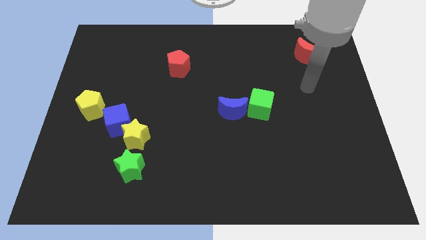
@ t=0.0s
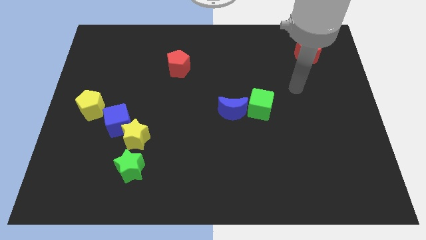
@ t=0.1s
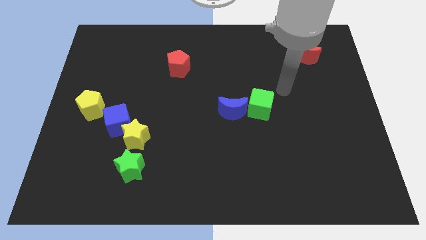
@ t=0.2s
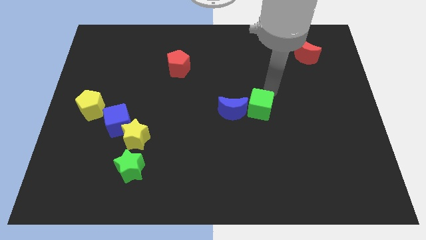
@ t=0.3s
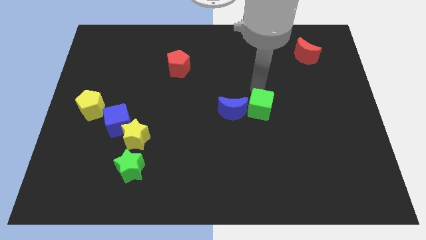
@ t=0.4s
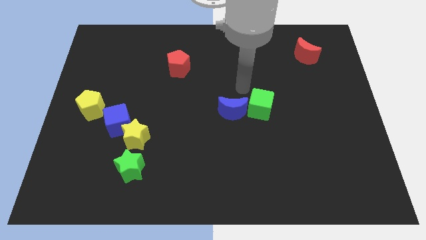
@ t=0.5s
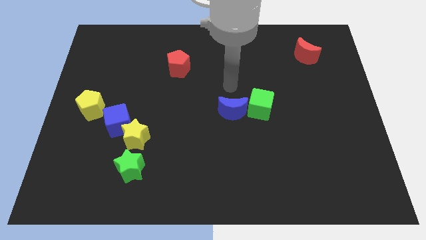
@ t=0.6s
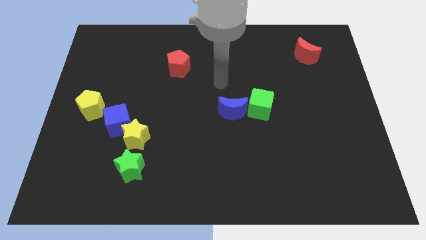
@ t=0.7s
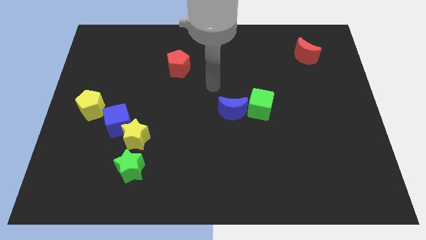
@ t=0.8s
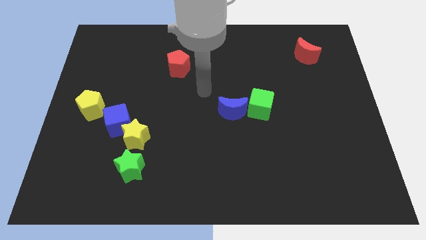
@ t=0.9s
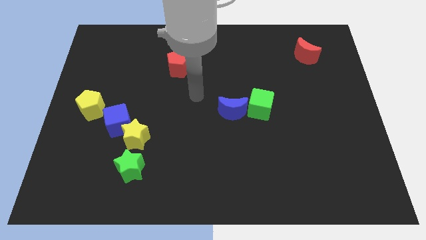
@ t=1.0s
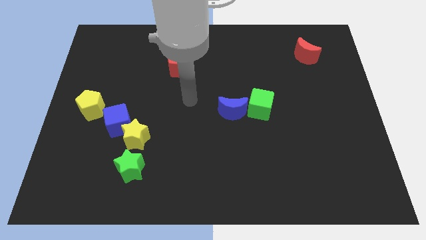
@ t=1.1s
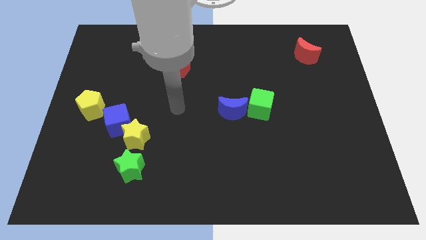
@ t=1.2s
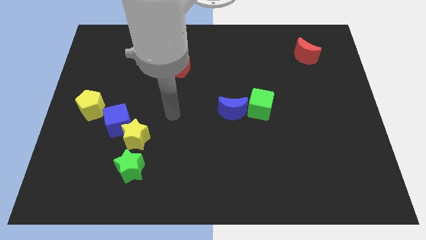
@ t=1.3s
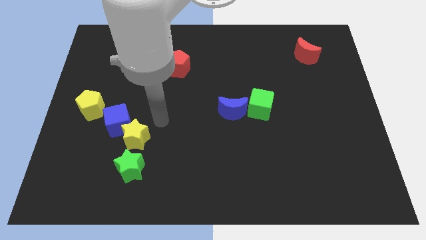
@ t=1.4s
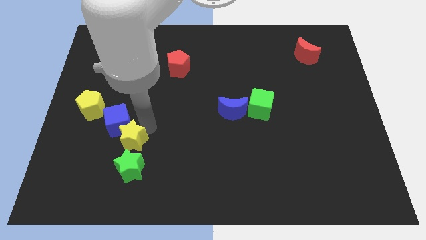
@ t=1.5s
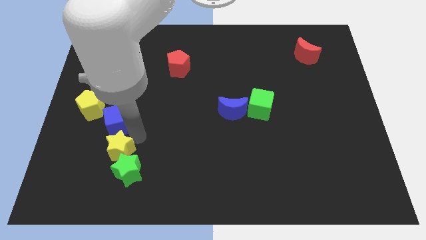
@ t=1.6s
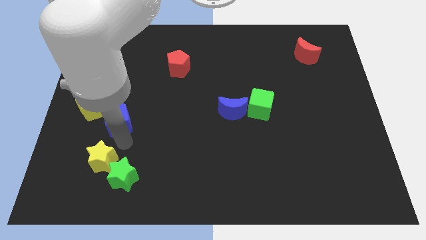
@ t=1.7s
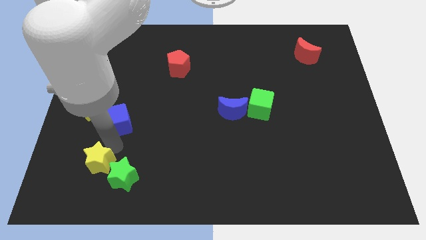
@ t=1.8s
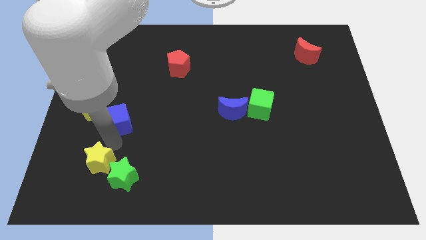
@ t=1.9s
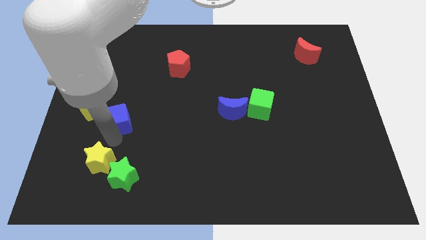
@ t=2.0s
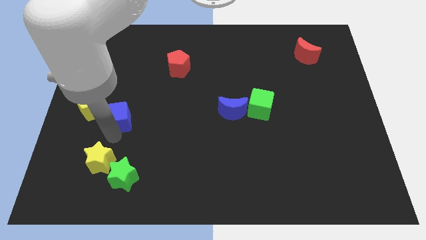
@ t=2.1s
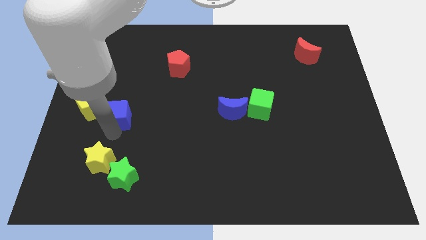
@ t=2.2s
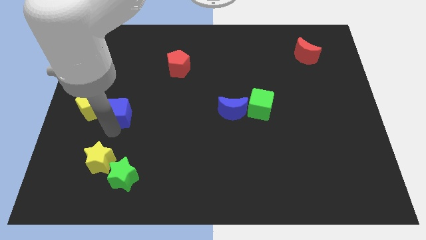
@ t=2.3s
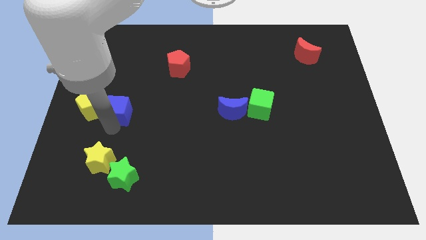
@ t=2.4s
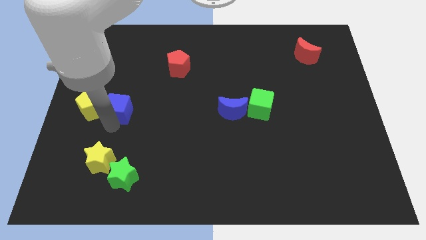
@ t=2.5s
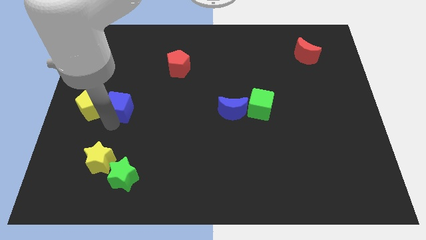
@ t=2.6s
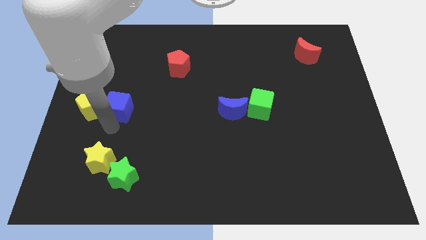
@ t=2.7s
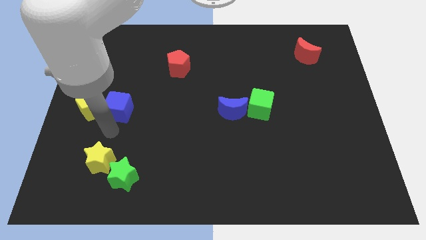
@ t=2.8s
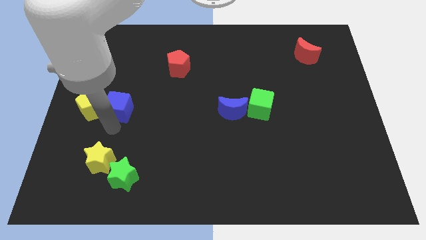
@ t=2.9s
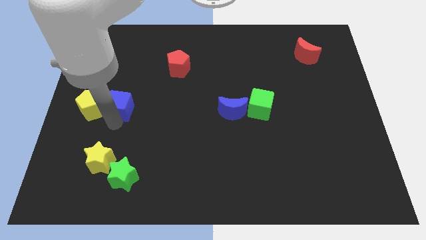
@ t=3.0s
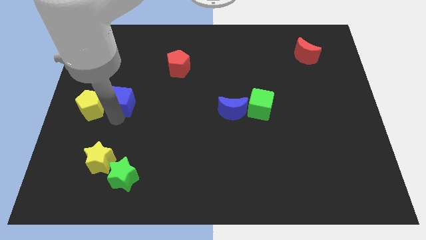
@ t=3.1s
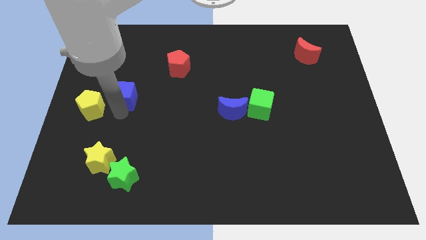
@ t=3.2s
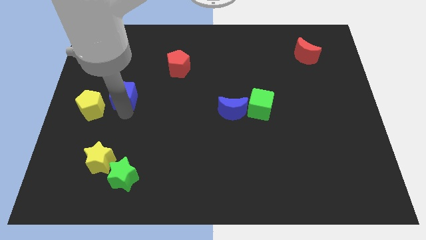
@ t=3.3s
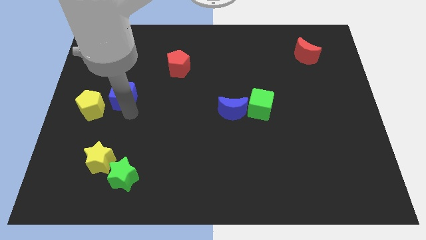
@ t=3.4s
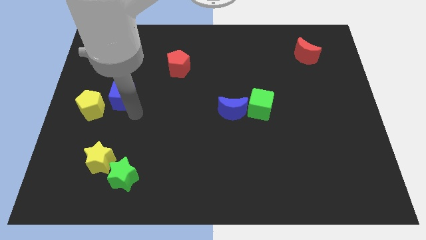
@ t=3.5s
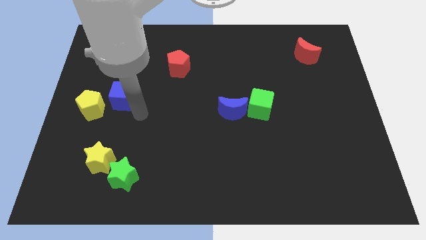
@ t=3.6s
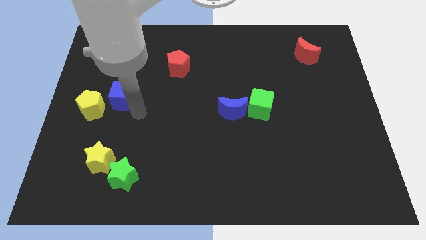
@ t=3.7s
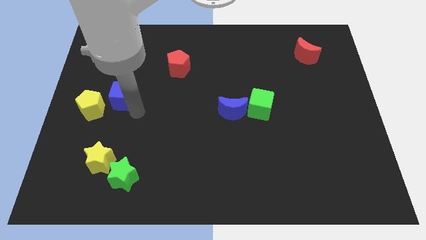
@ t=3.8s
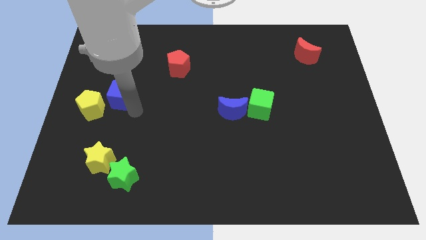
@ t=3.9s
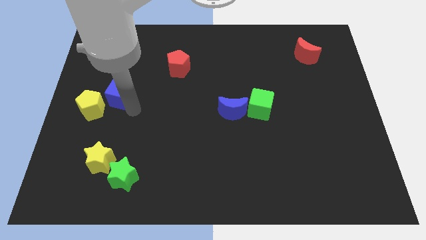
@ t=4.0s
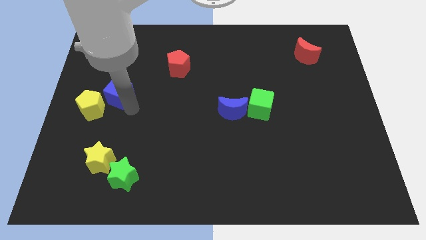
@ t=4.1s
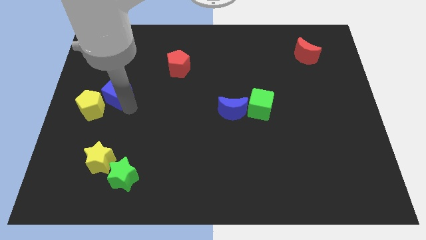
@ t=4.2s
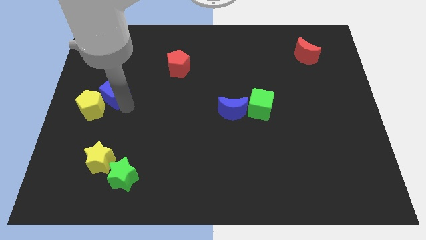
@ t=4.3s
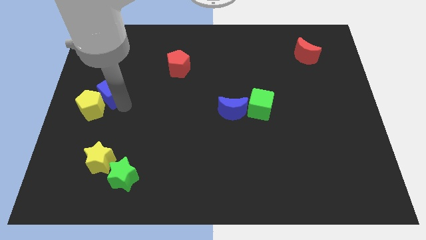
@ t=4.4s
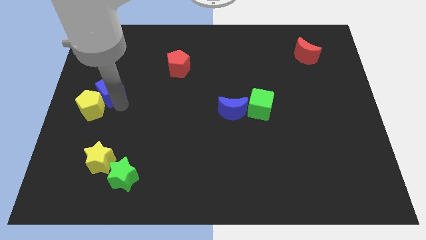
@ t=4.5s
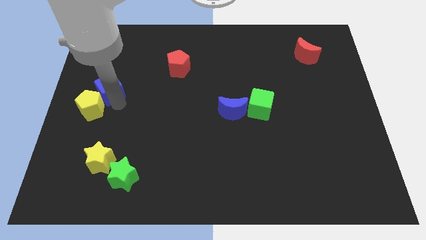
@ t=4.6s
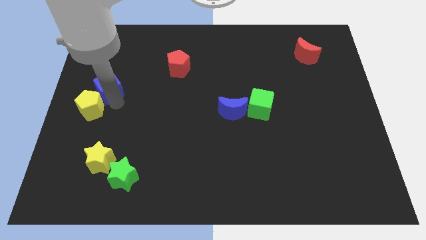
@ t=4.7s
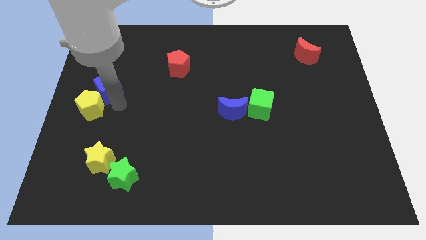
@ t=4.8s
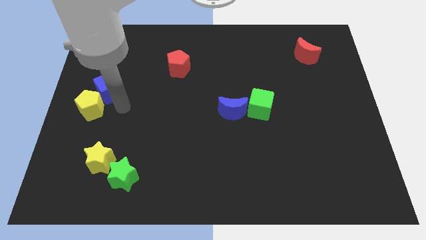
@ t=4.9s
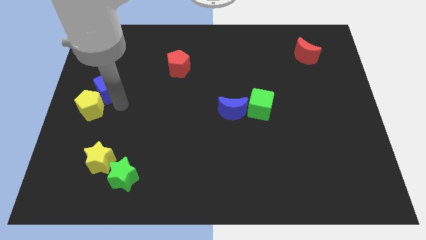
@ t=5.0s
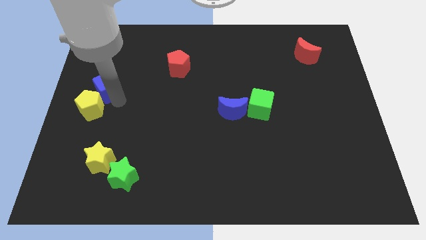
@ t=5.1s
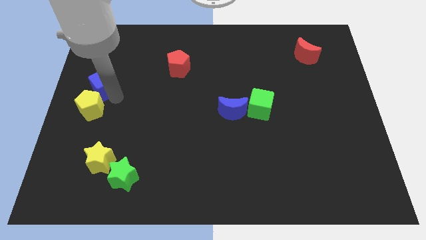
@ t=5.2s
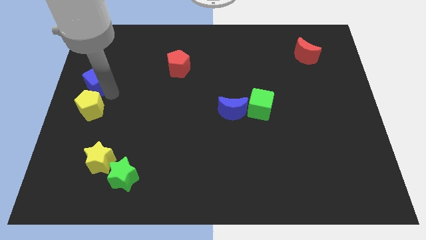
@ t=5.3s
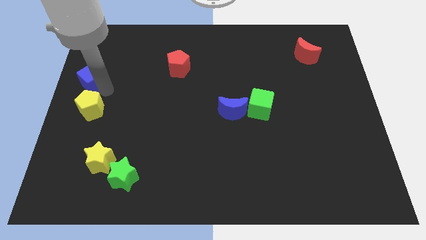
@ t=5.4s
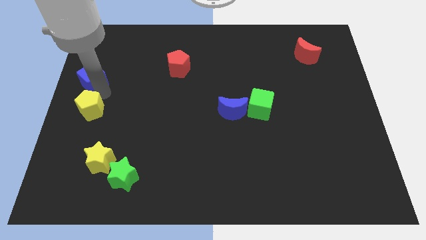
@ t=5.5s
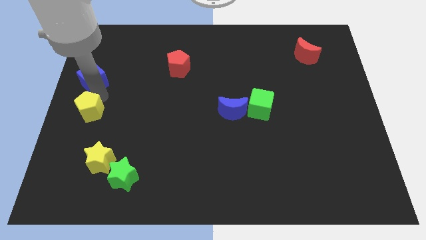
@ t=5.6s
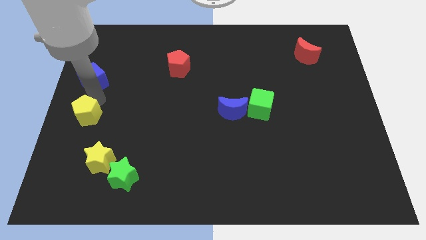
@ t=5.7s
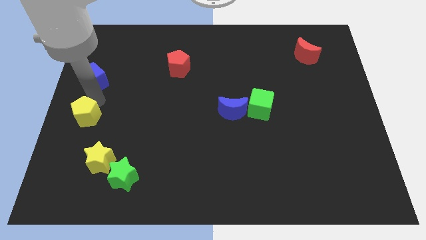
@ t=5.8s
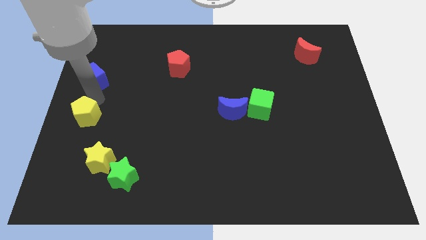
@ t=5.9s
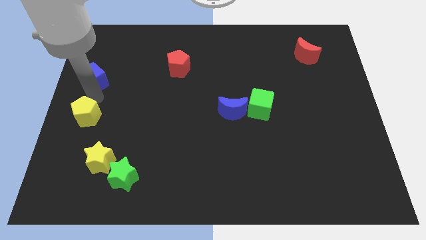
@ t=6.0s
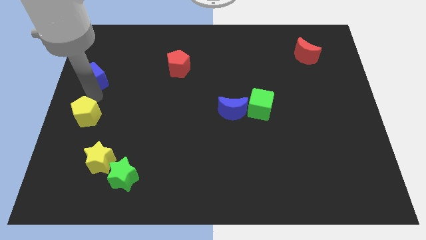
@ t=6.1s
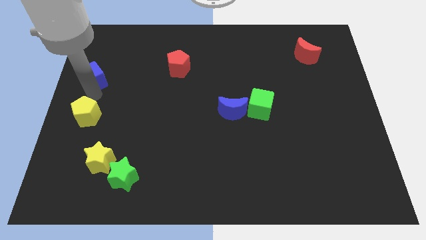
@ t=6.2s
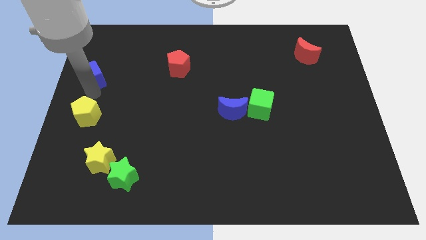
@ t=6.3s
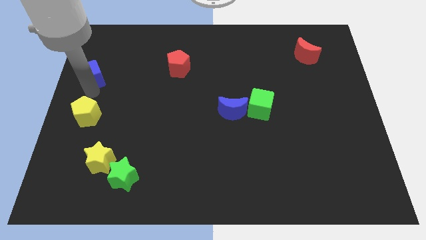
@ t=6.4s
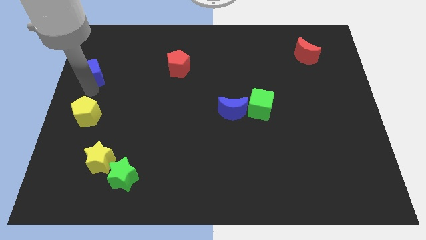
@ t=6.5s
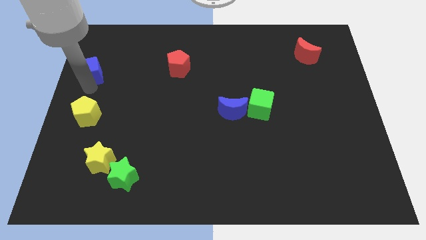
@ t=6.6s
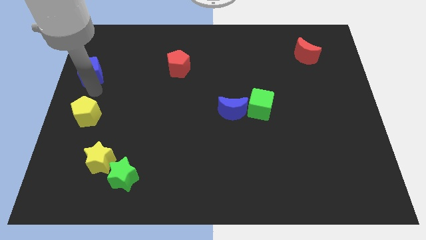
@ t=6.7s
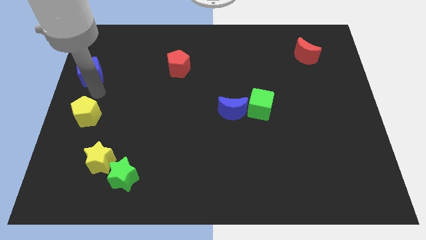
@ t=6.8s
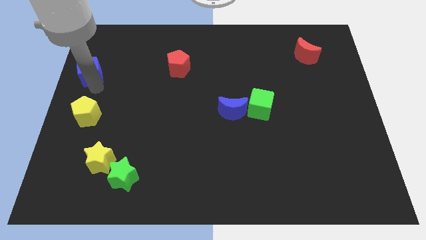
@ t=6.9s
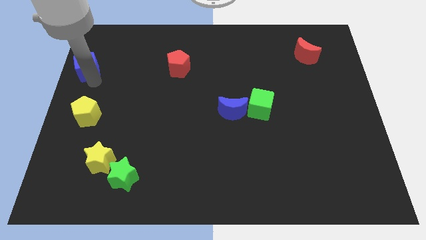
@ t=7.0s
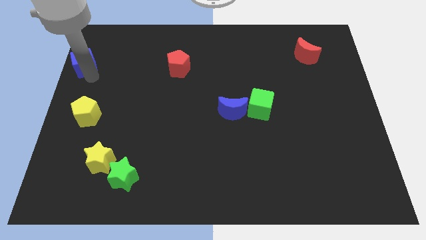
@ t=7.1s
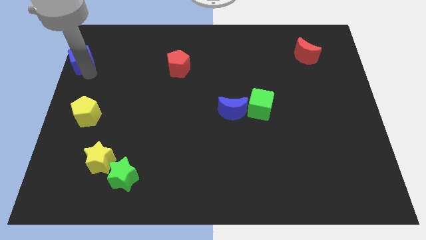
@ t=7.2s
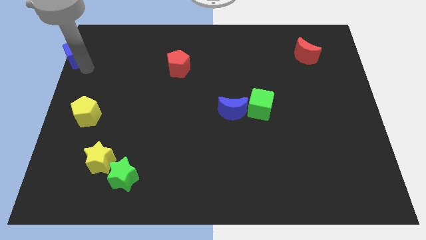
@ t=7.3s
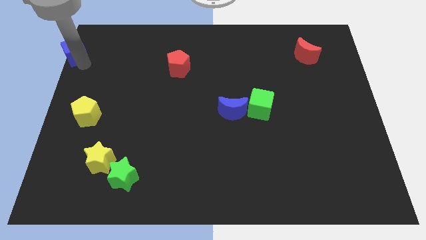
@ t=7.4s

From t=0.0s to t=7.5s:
push the blue cube to the top left
